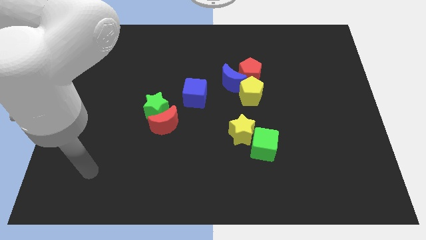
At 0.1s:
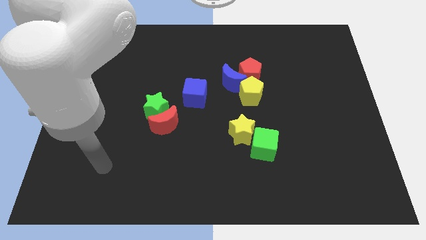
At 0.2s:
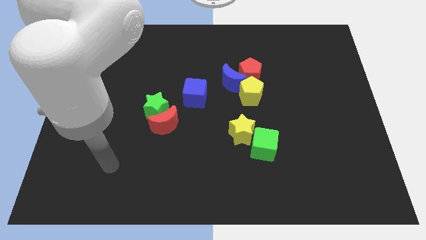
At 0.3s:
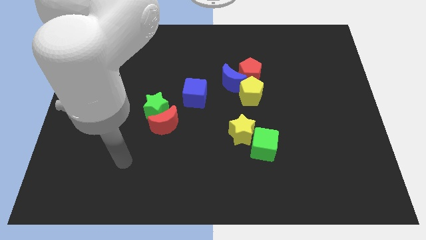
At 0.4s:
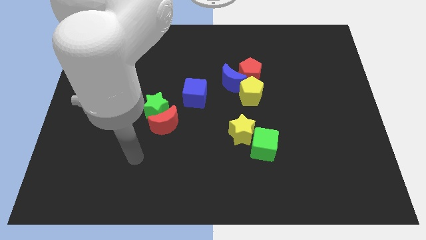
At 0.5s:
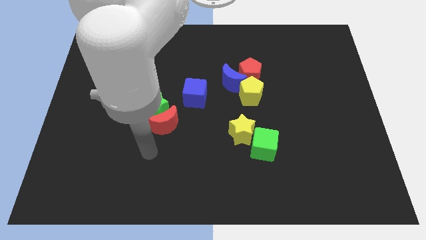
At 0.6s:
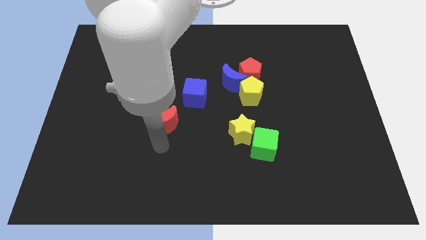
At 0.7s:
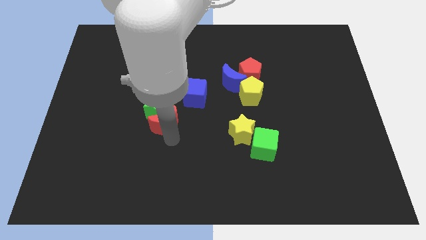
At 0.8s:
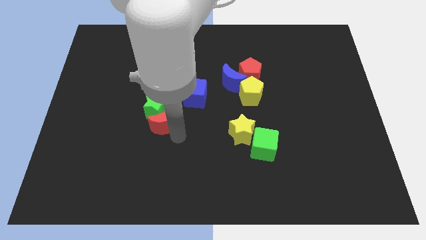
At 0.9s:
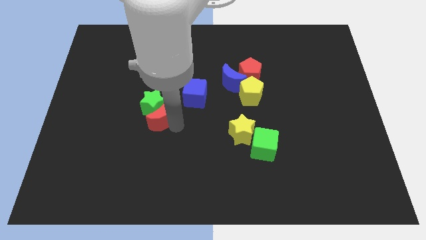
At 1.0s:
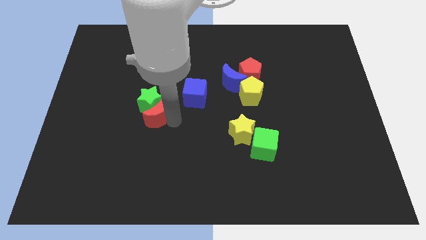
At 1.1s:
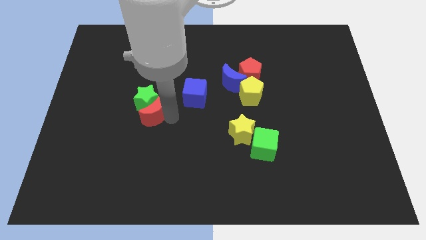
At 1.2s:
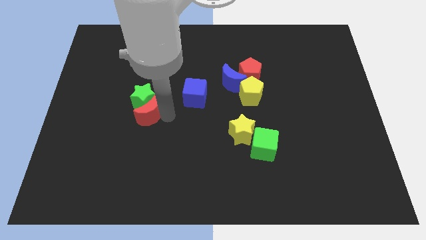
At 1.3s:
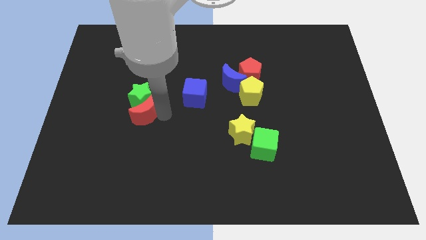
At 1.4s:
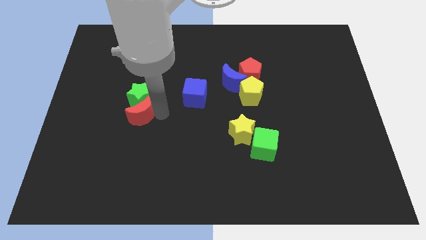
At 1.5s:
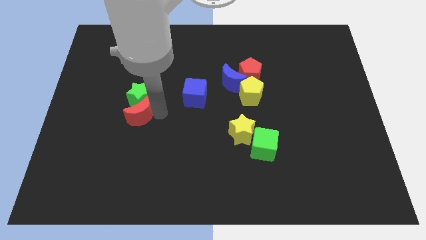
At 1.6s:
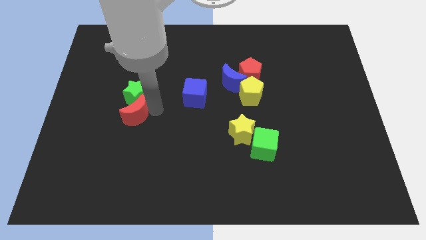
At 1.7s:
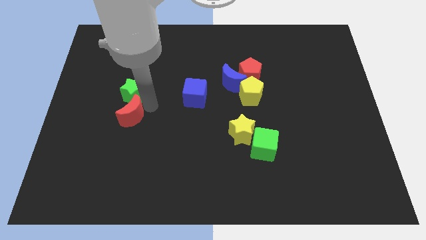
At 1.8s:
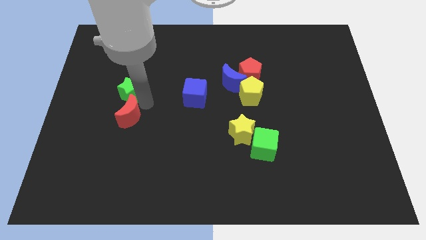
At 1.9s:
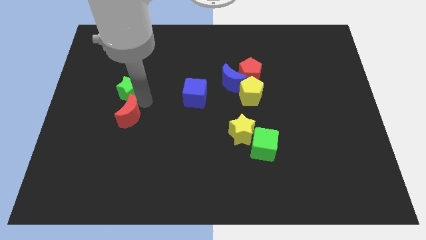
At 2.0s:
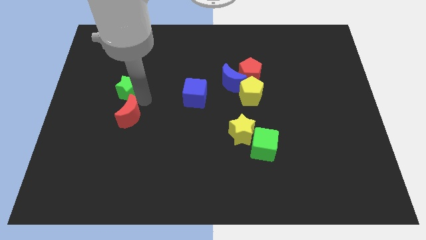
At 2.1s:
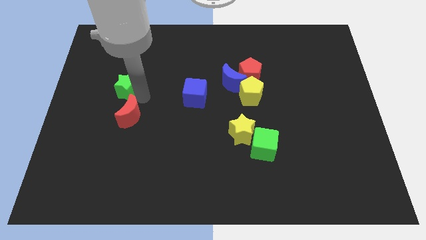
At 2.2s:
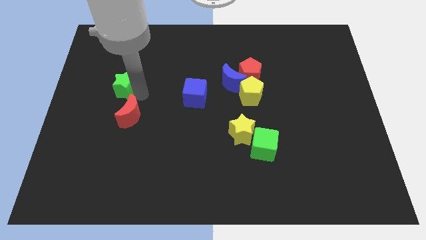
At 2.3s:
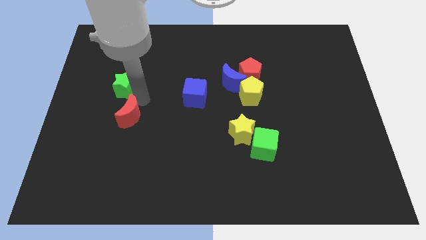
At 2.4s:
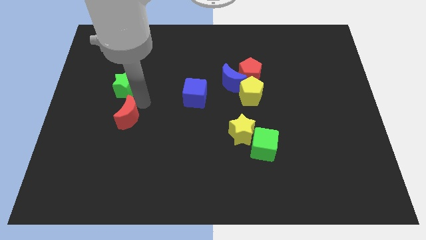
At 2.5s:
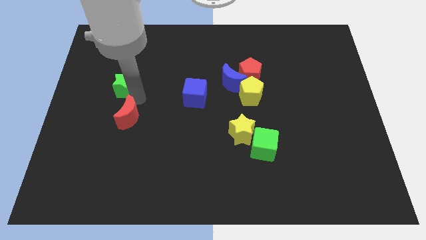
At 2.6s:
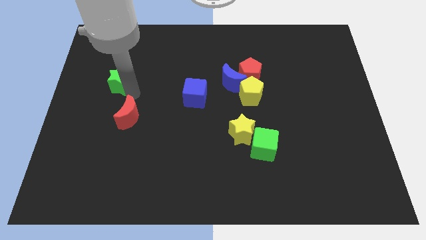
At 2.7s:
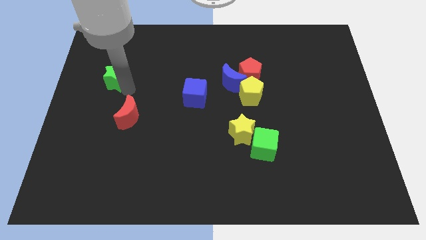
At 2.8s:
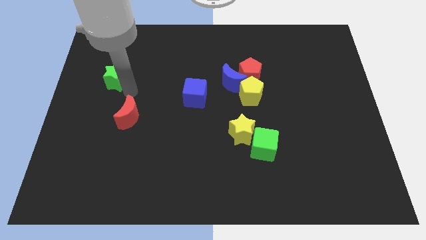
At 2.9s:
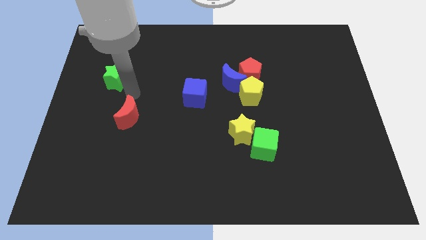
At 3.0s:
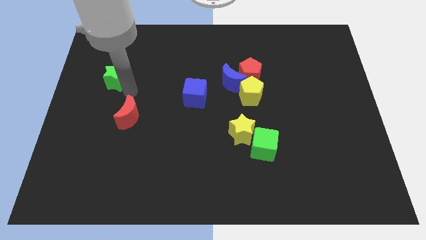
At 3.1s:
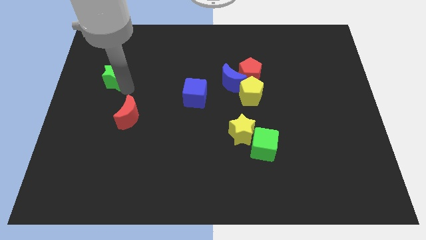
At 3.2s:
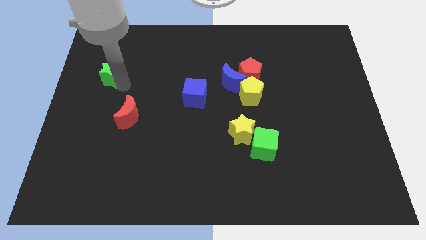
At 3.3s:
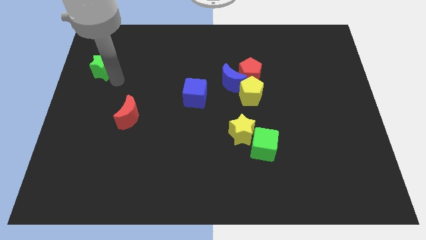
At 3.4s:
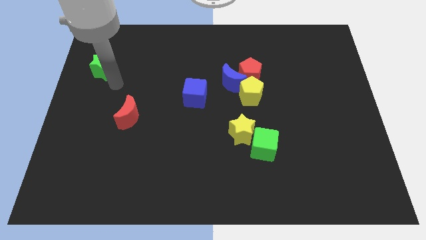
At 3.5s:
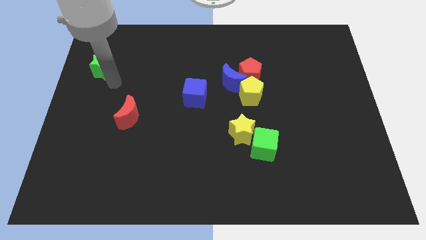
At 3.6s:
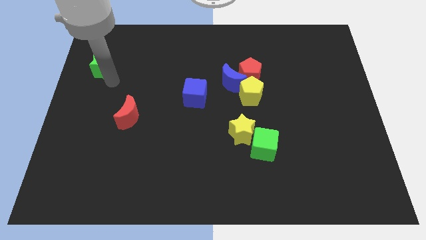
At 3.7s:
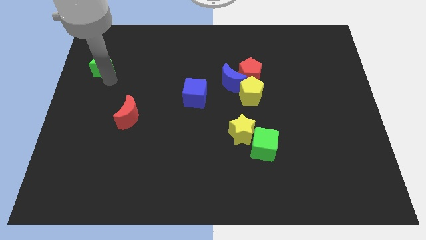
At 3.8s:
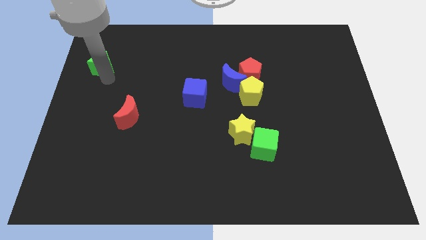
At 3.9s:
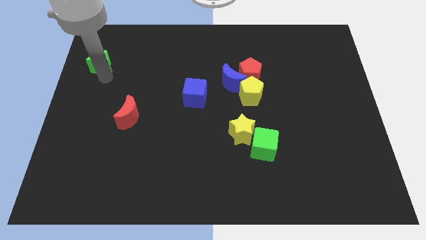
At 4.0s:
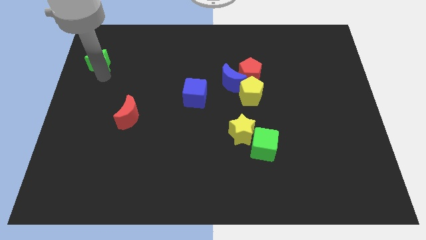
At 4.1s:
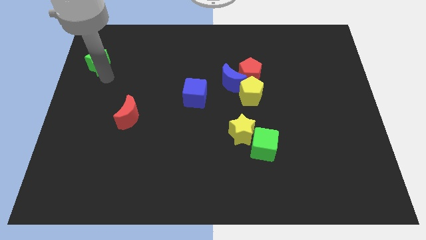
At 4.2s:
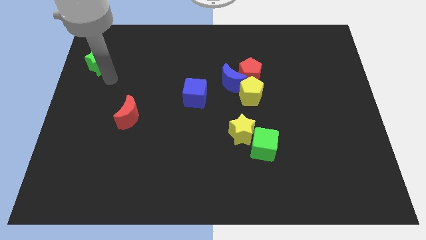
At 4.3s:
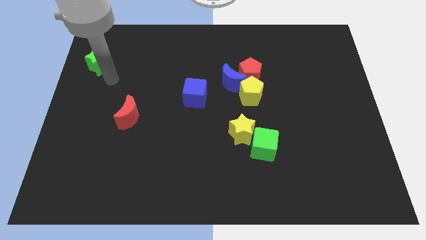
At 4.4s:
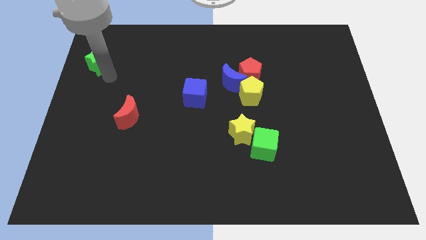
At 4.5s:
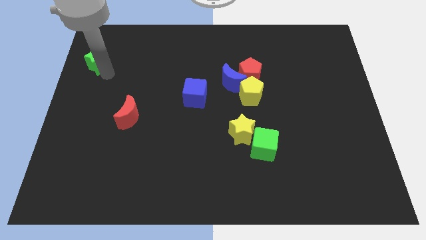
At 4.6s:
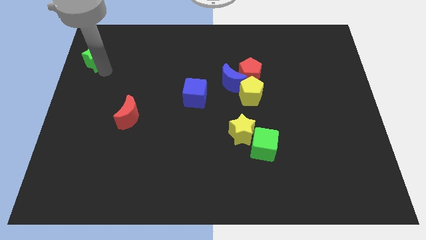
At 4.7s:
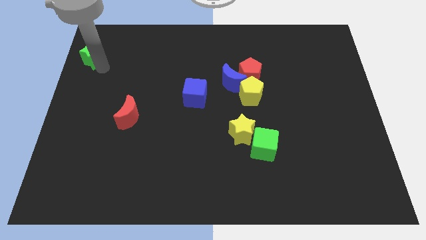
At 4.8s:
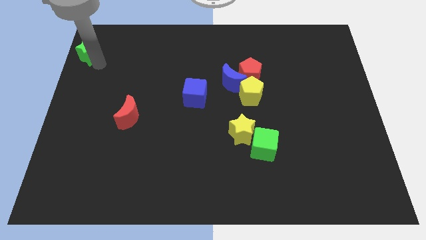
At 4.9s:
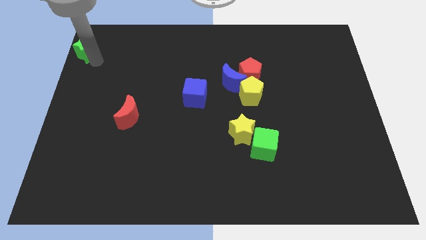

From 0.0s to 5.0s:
push the green star to the top left corner

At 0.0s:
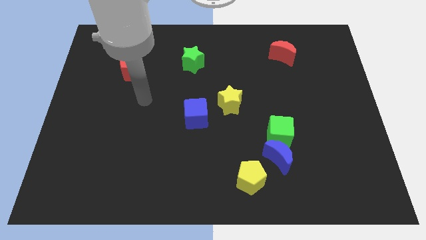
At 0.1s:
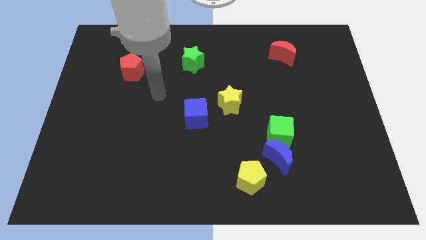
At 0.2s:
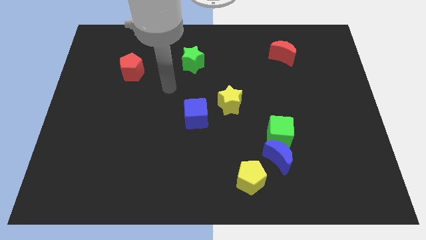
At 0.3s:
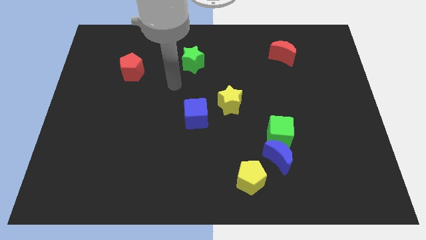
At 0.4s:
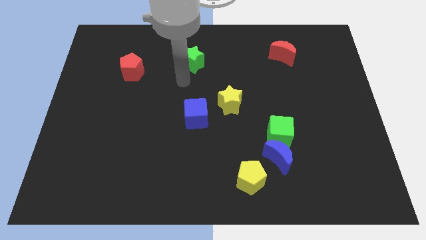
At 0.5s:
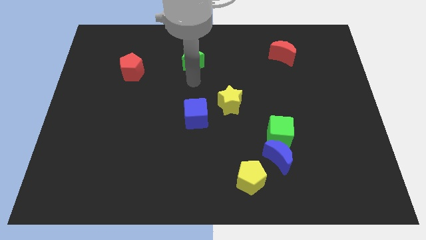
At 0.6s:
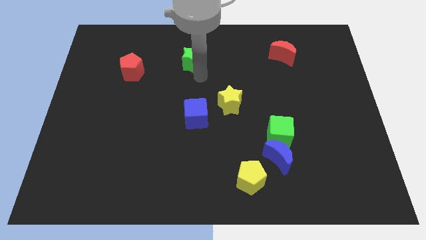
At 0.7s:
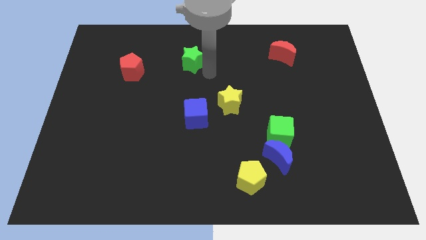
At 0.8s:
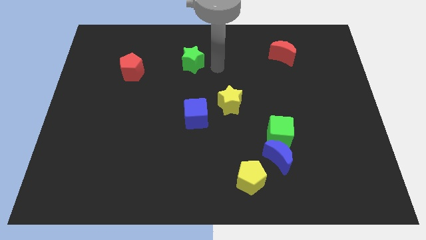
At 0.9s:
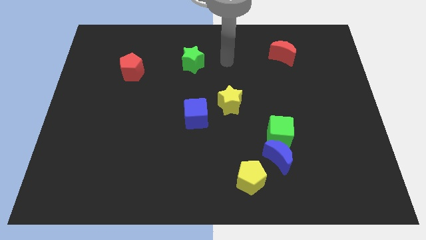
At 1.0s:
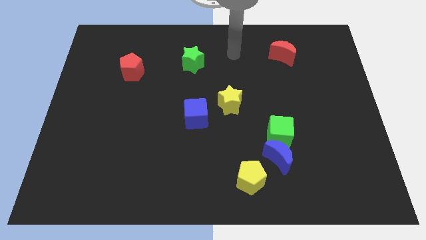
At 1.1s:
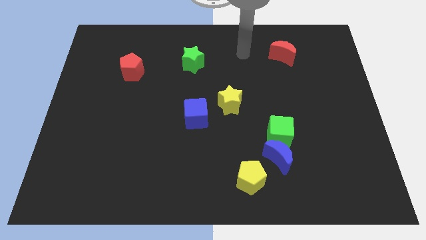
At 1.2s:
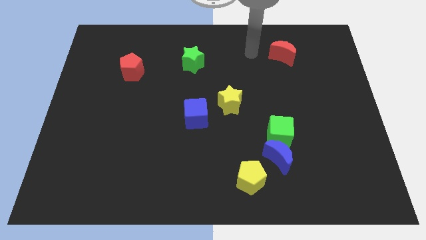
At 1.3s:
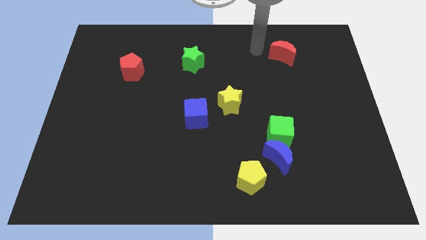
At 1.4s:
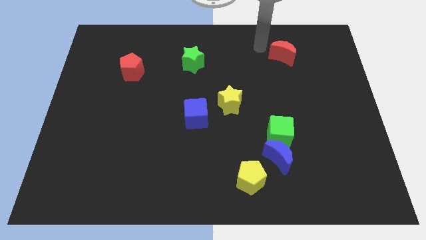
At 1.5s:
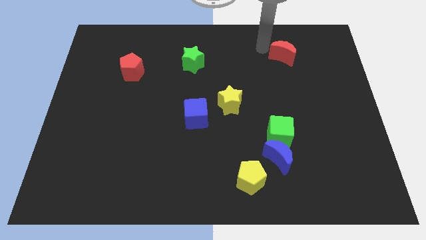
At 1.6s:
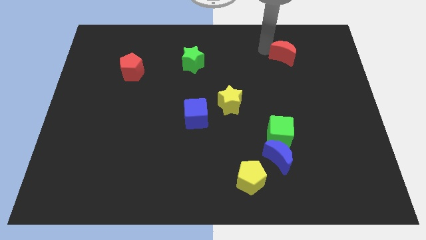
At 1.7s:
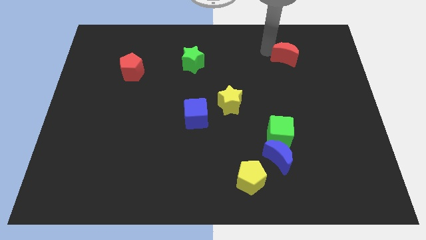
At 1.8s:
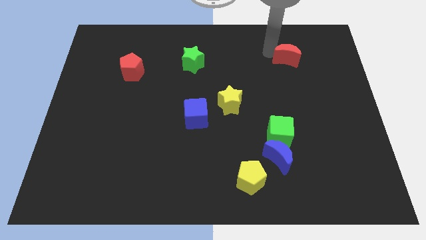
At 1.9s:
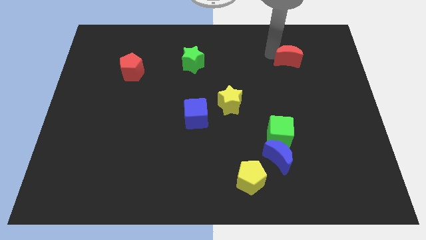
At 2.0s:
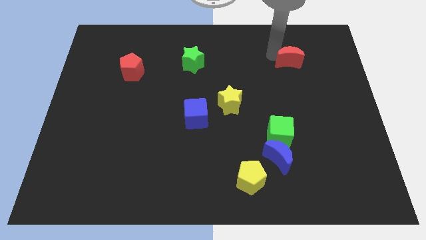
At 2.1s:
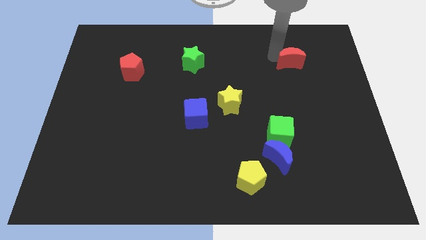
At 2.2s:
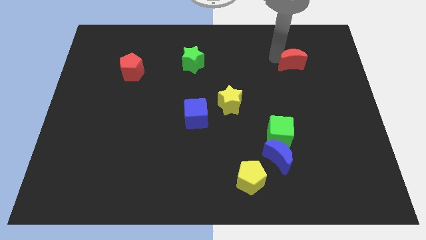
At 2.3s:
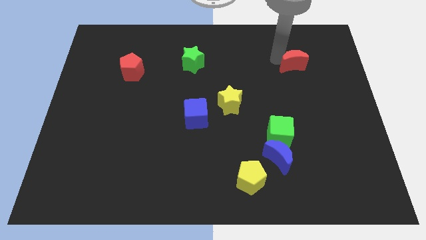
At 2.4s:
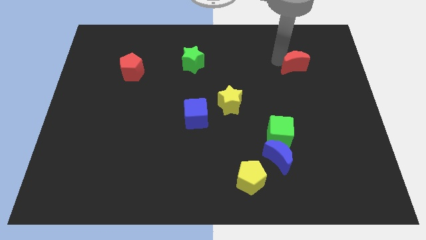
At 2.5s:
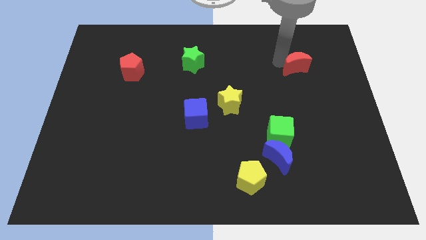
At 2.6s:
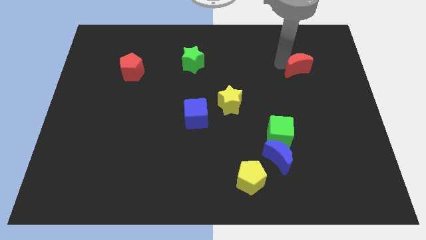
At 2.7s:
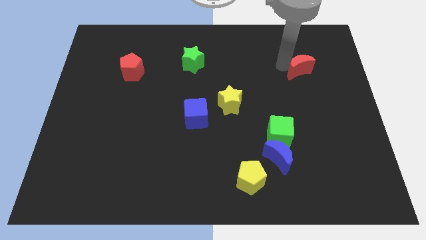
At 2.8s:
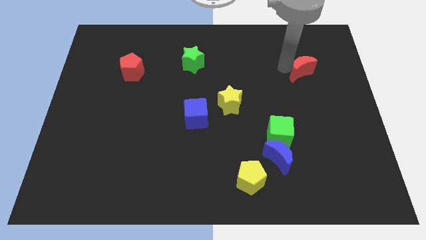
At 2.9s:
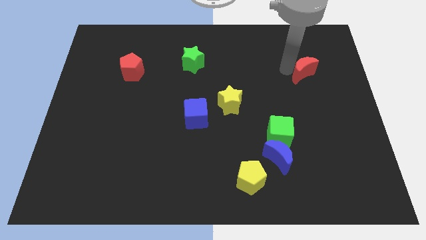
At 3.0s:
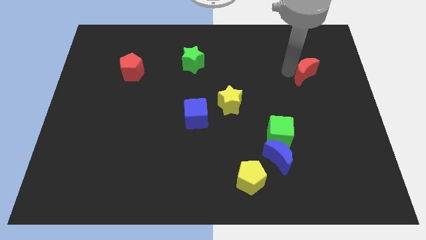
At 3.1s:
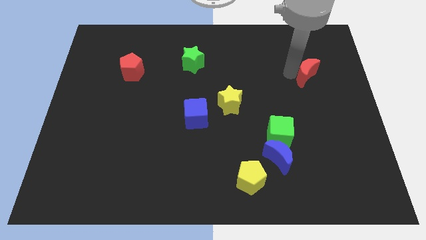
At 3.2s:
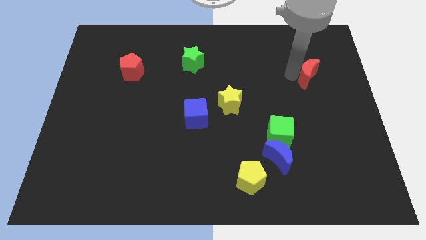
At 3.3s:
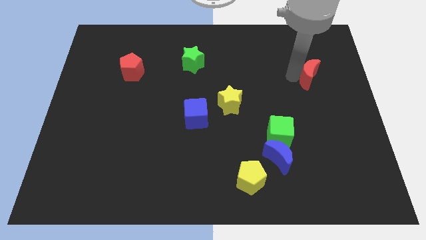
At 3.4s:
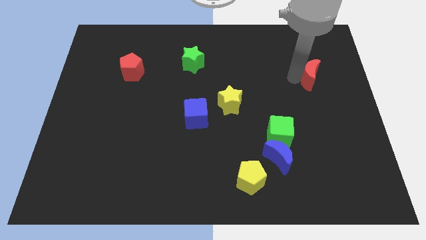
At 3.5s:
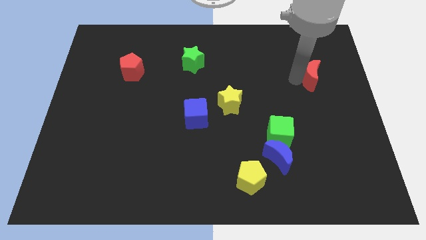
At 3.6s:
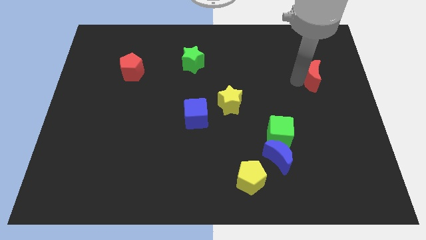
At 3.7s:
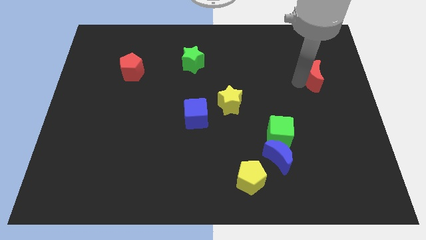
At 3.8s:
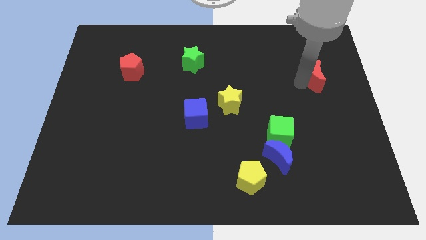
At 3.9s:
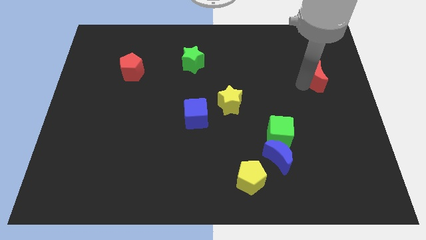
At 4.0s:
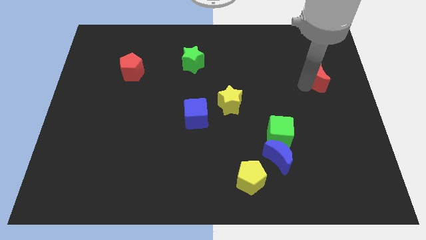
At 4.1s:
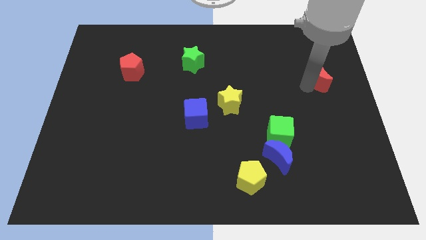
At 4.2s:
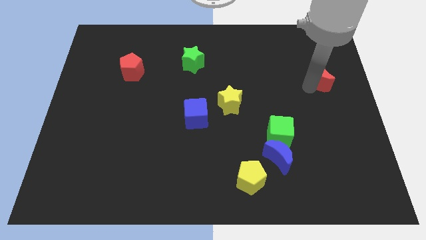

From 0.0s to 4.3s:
put the red moon to the right side
